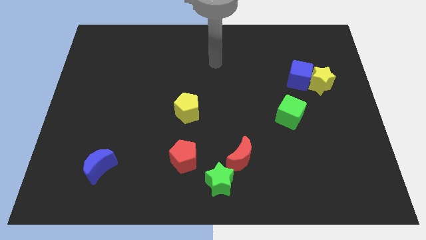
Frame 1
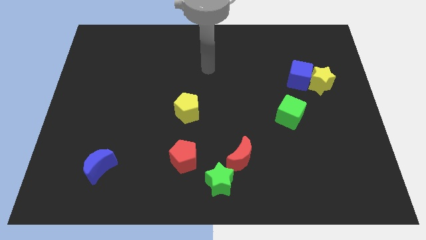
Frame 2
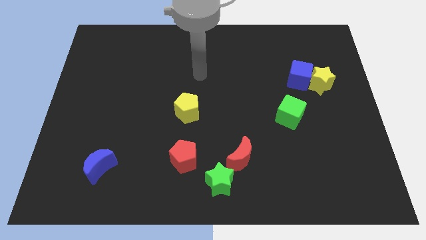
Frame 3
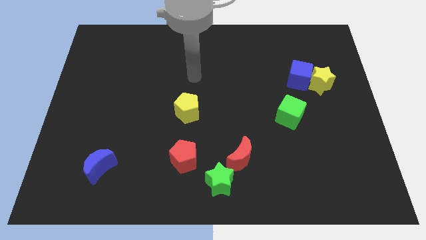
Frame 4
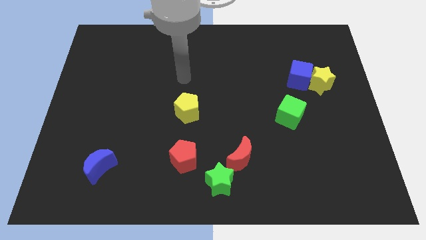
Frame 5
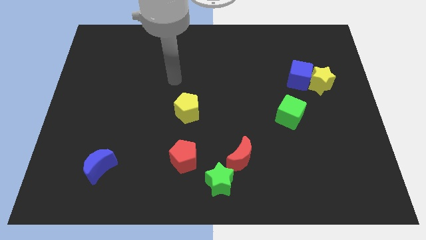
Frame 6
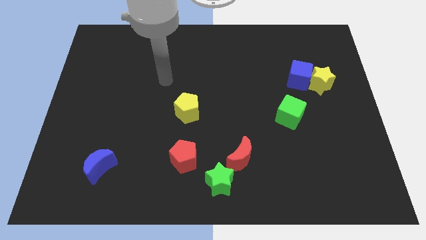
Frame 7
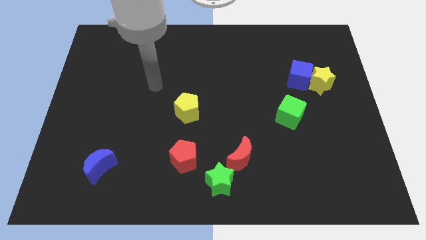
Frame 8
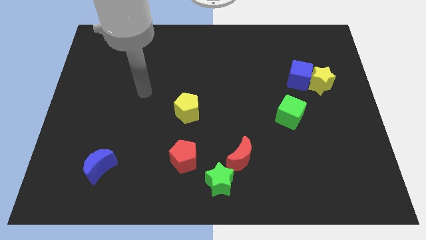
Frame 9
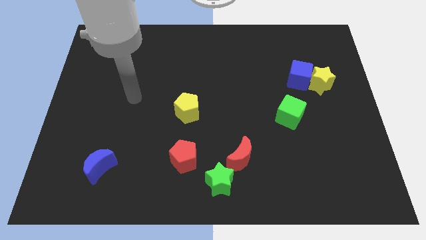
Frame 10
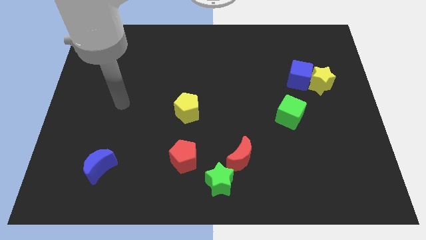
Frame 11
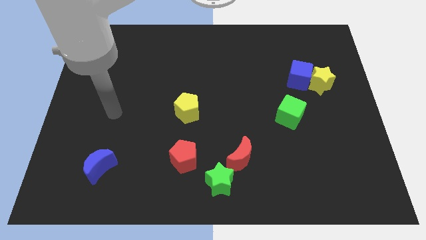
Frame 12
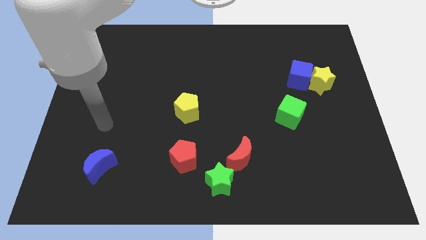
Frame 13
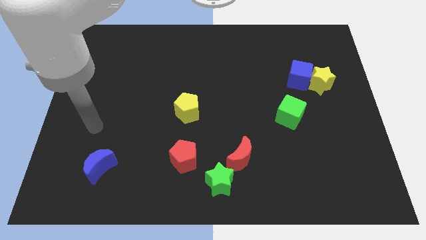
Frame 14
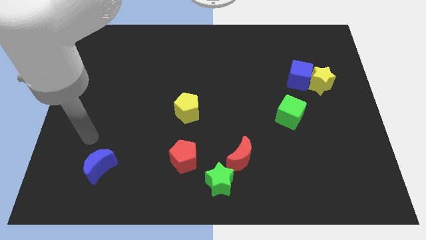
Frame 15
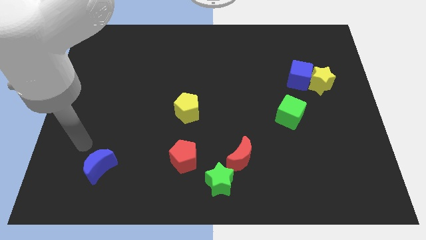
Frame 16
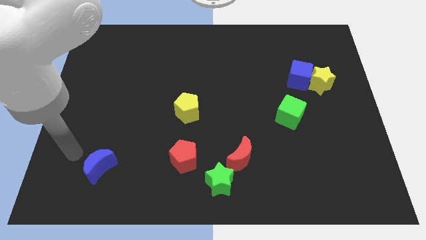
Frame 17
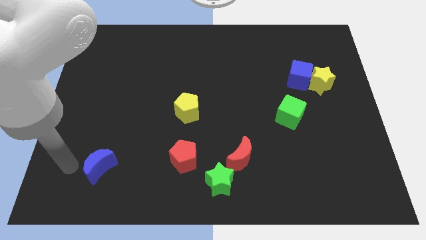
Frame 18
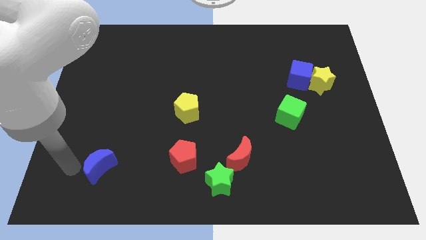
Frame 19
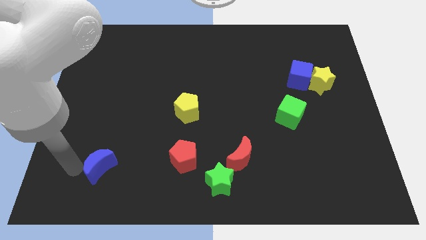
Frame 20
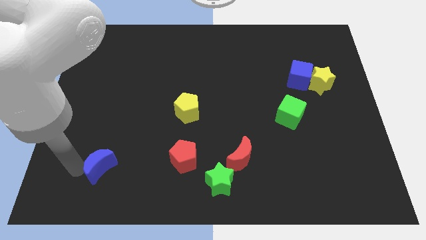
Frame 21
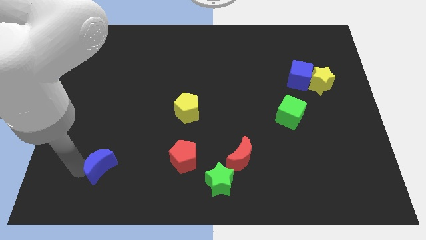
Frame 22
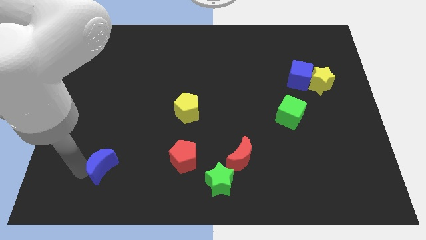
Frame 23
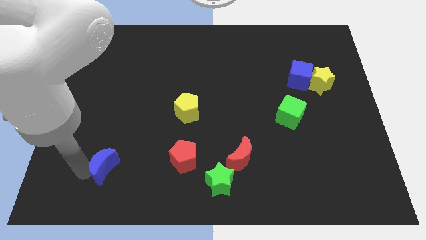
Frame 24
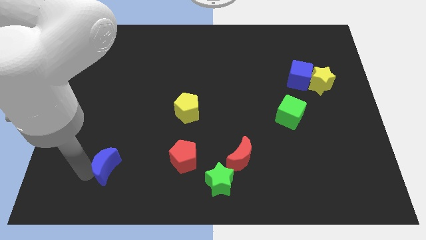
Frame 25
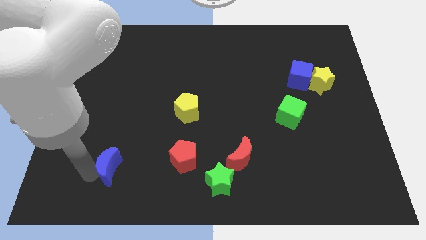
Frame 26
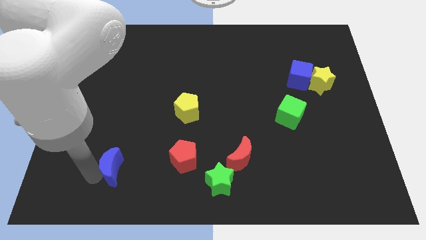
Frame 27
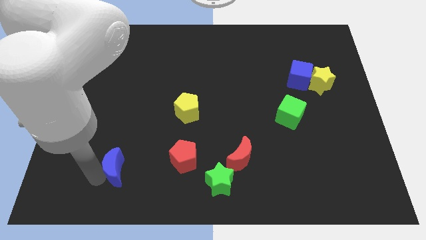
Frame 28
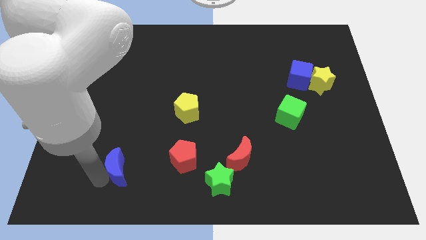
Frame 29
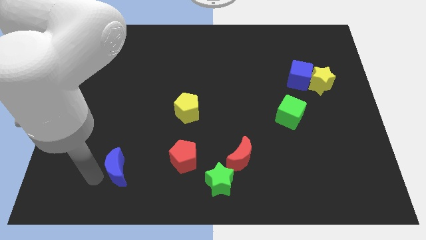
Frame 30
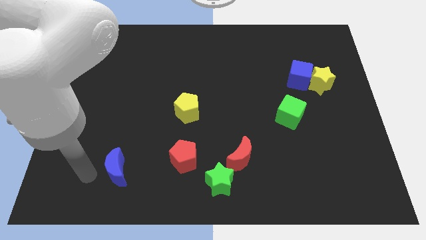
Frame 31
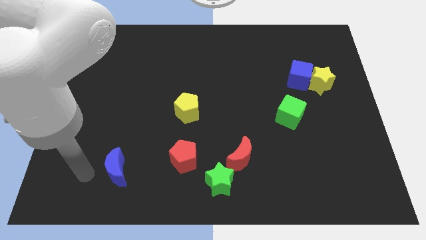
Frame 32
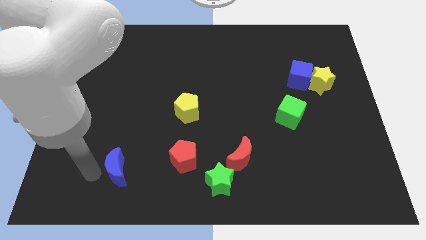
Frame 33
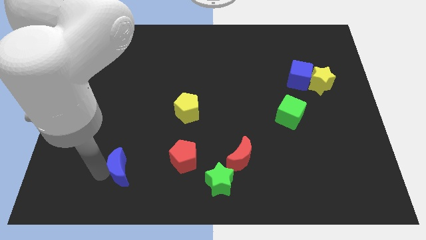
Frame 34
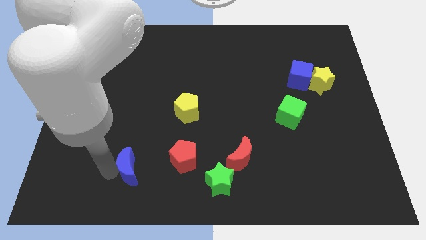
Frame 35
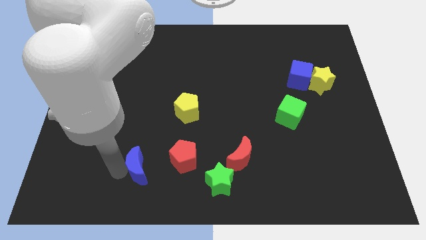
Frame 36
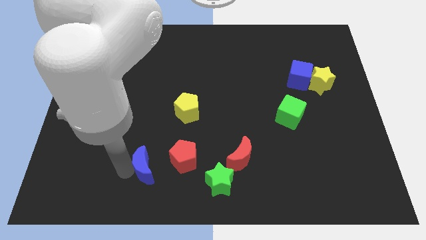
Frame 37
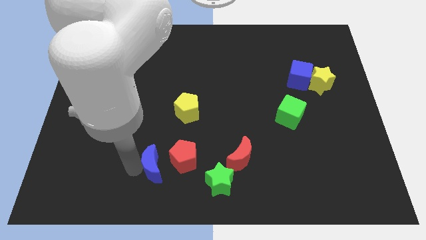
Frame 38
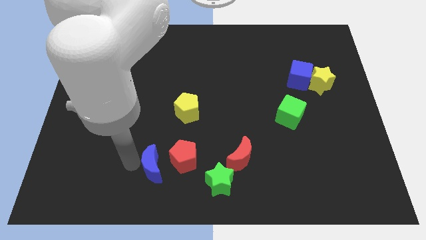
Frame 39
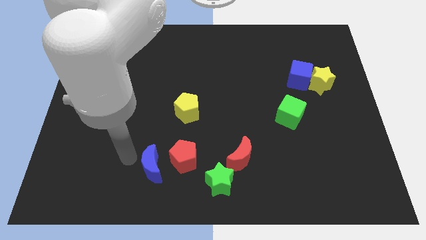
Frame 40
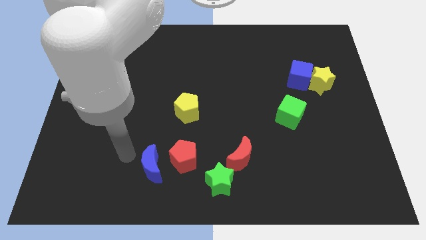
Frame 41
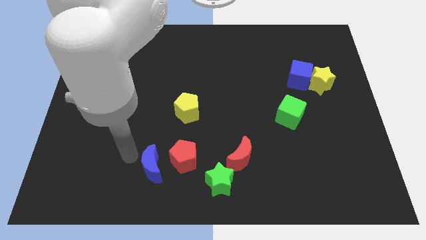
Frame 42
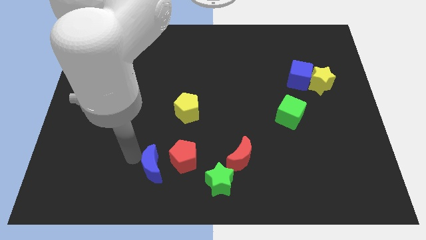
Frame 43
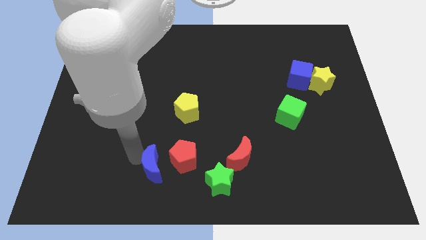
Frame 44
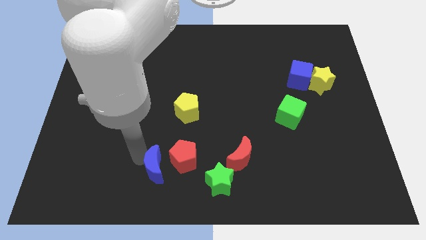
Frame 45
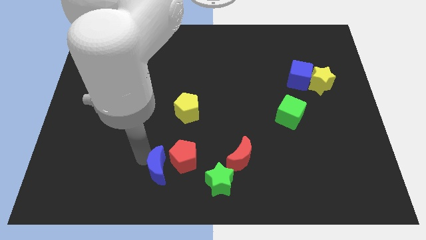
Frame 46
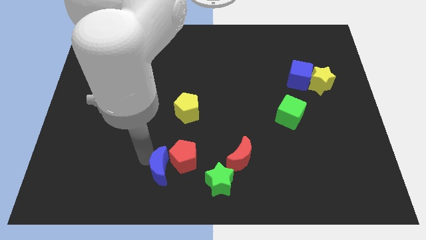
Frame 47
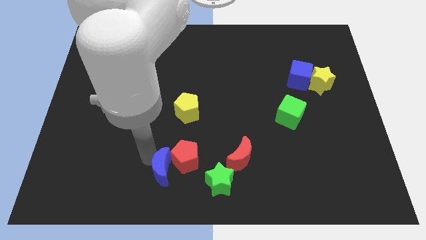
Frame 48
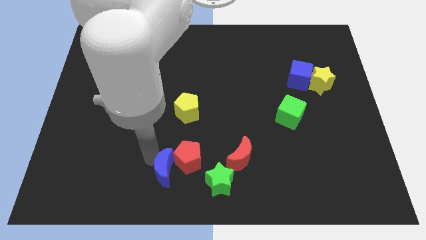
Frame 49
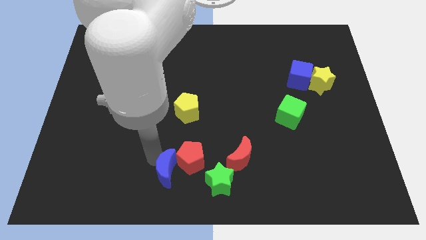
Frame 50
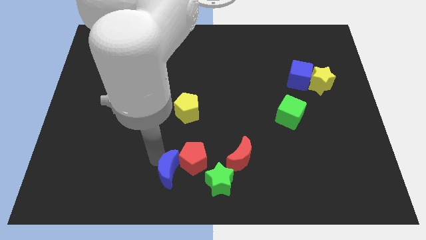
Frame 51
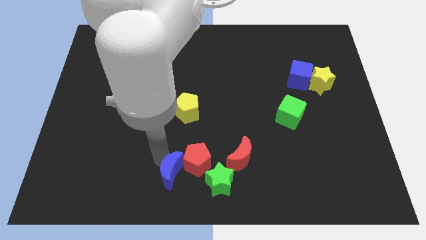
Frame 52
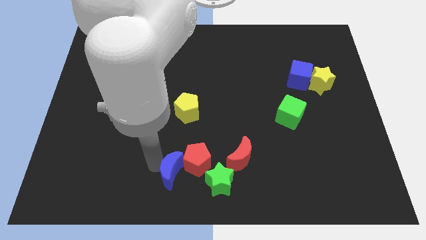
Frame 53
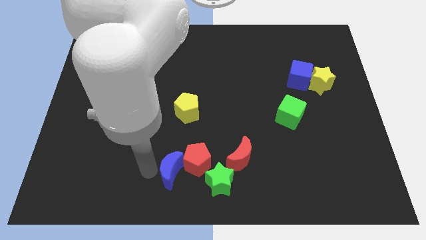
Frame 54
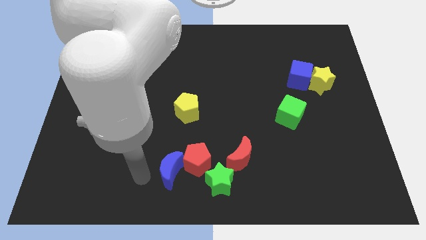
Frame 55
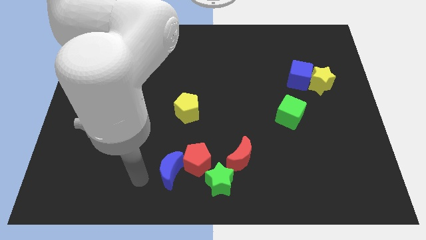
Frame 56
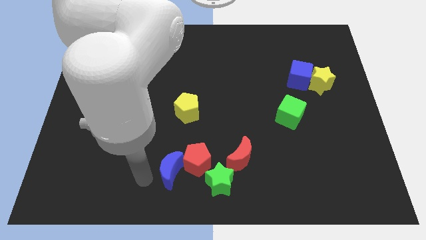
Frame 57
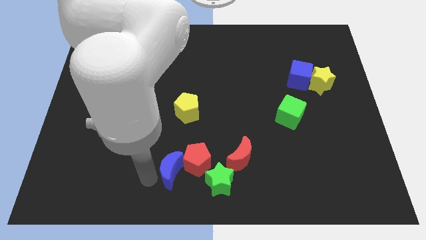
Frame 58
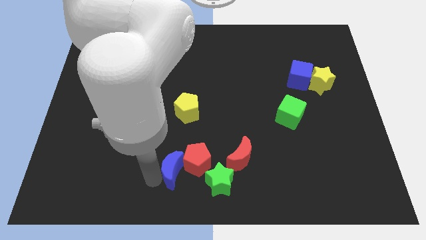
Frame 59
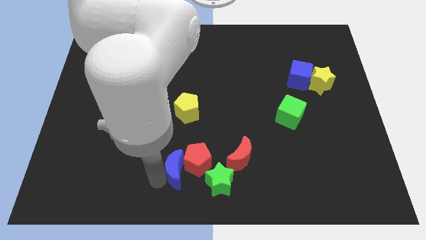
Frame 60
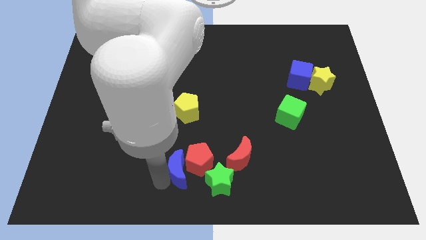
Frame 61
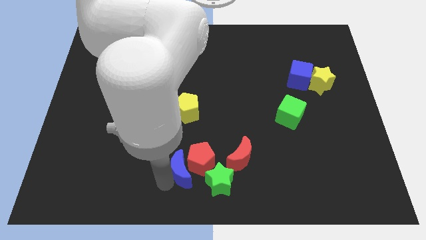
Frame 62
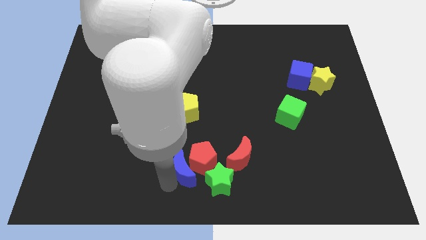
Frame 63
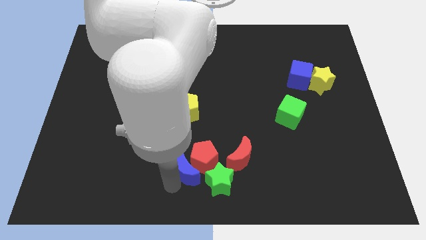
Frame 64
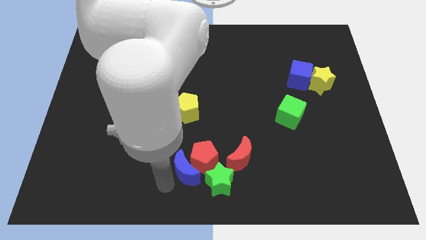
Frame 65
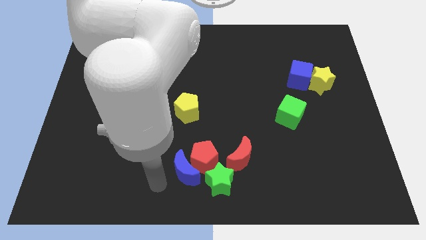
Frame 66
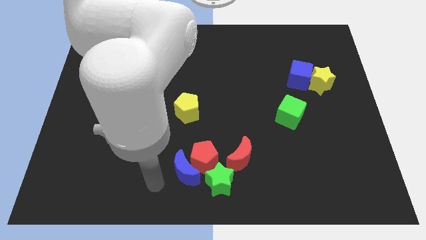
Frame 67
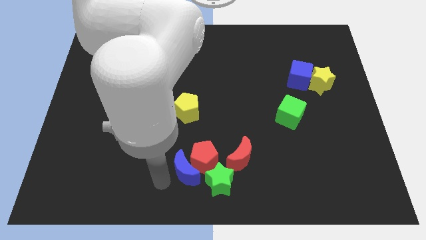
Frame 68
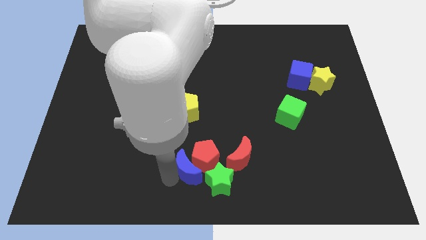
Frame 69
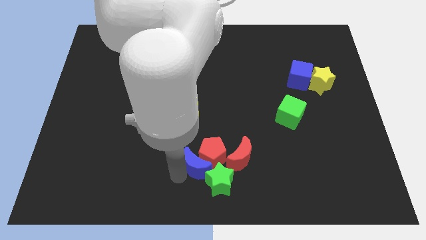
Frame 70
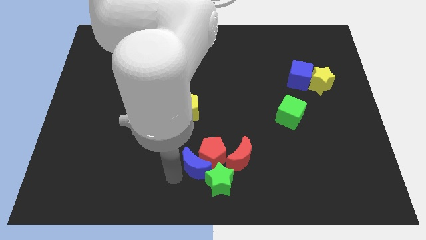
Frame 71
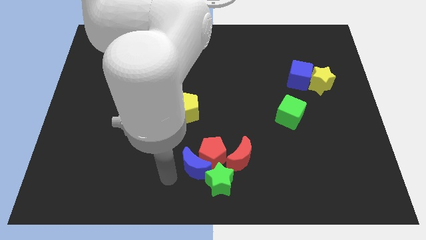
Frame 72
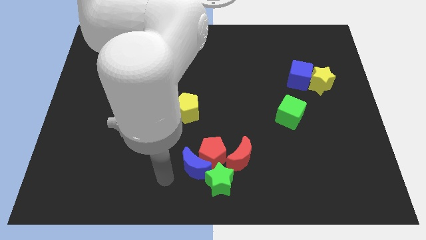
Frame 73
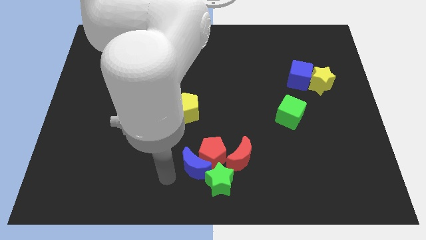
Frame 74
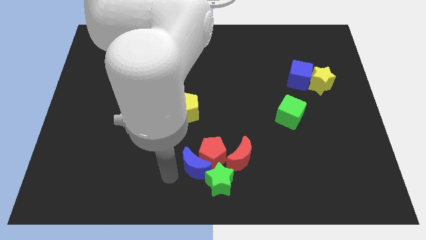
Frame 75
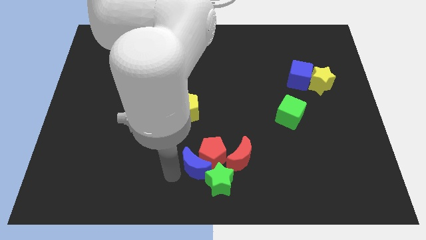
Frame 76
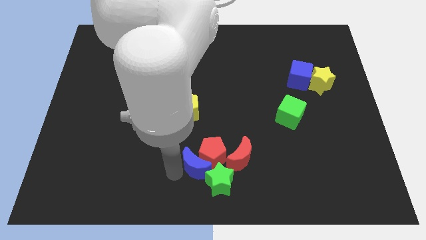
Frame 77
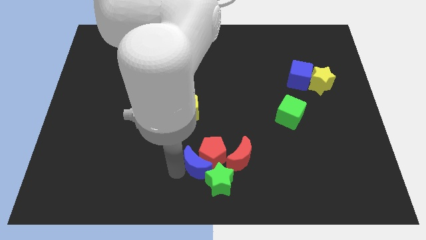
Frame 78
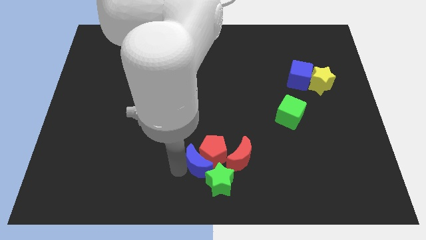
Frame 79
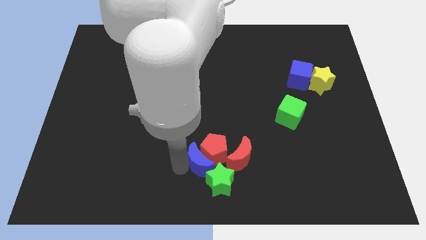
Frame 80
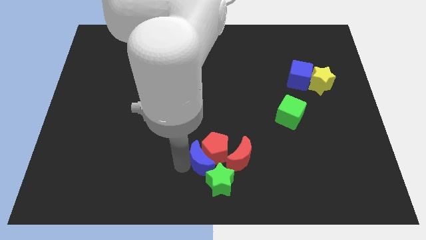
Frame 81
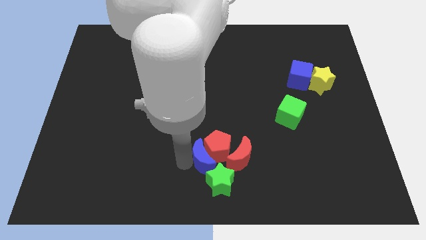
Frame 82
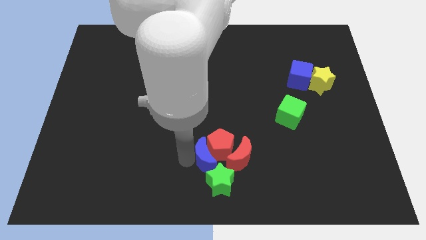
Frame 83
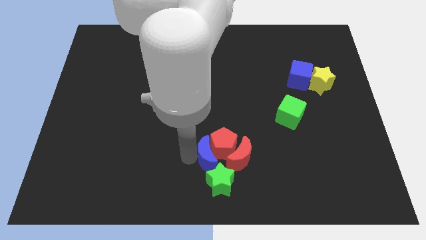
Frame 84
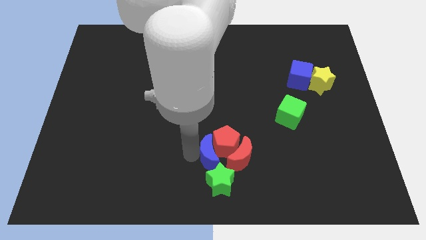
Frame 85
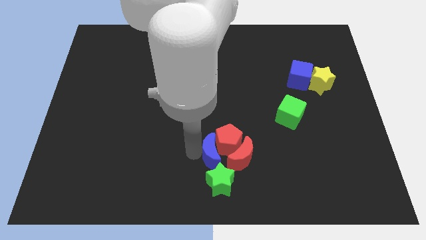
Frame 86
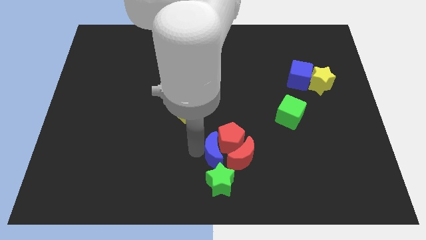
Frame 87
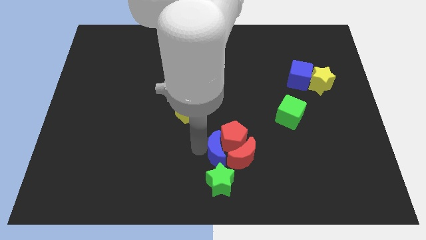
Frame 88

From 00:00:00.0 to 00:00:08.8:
put the blue moon to the red moon
